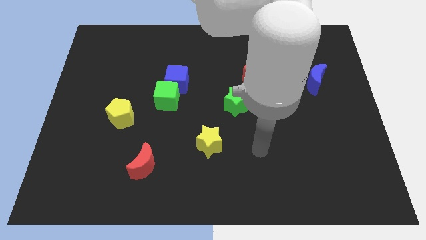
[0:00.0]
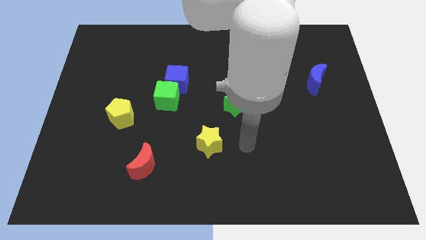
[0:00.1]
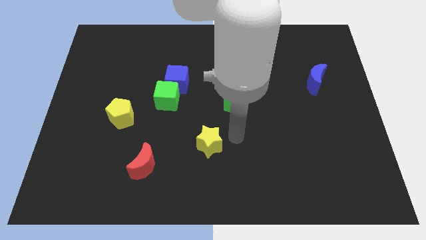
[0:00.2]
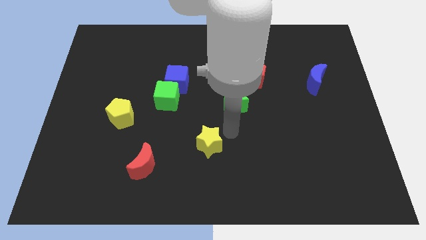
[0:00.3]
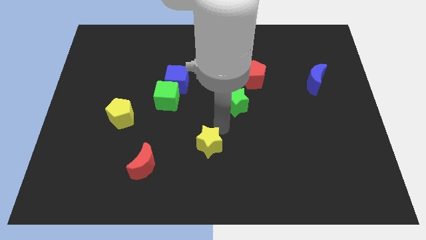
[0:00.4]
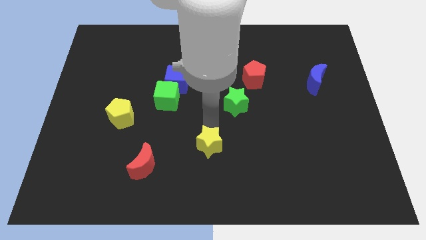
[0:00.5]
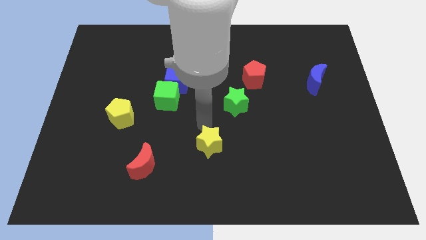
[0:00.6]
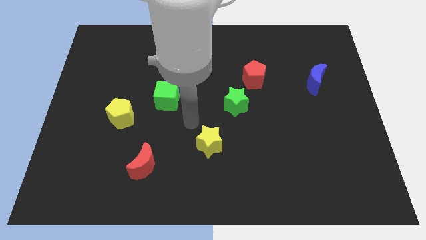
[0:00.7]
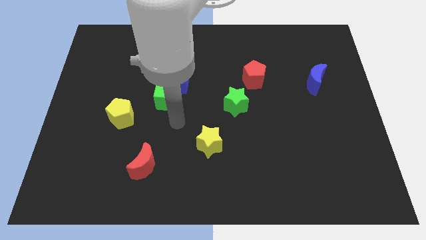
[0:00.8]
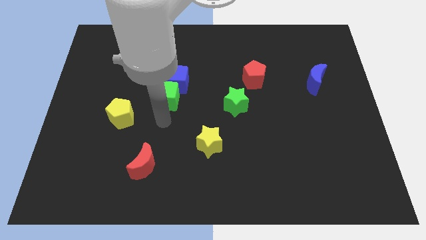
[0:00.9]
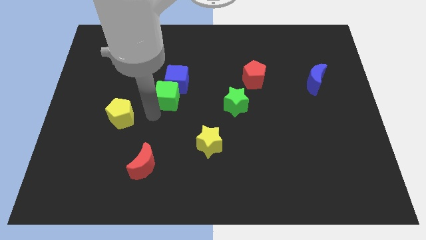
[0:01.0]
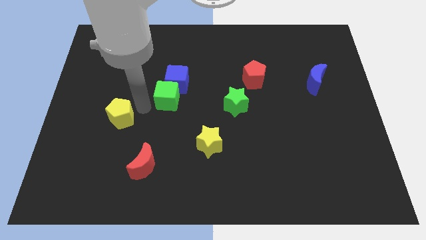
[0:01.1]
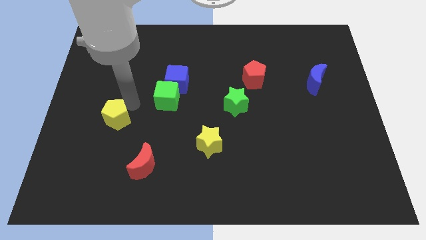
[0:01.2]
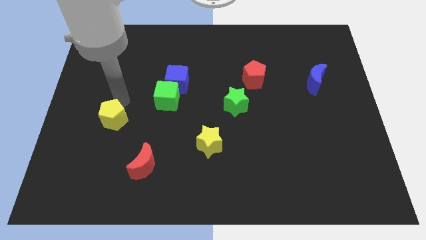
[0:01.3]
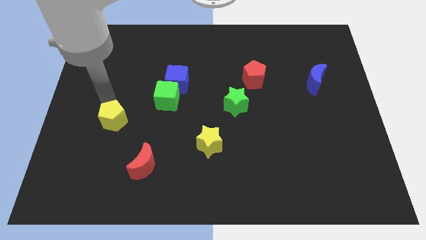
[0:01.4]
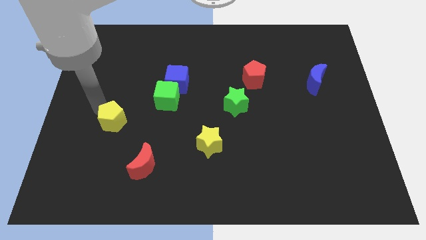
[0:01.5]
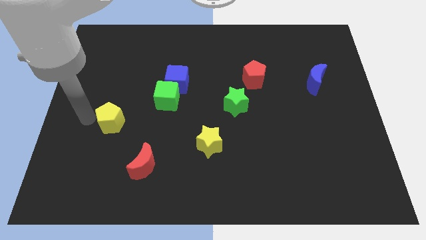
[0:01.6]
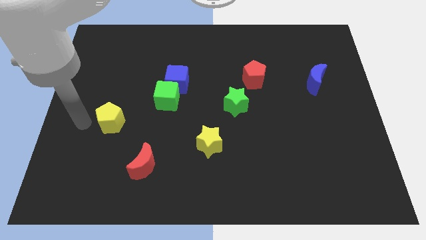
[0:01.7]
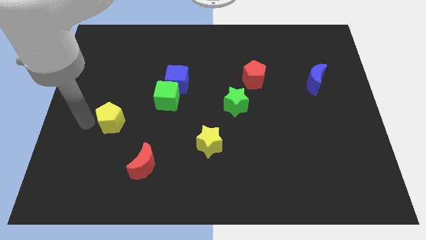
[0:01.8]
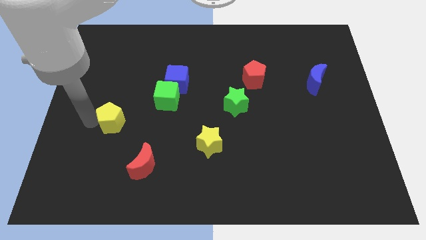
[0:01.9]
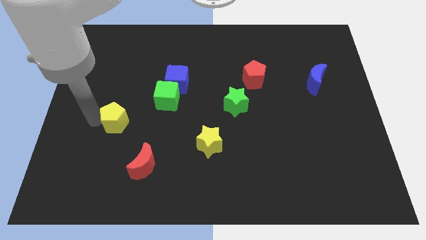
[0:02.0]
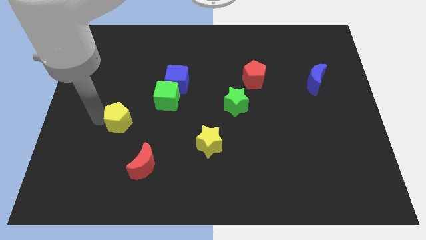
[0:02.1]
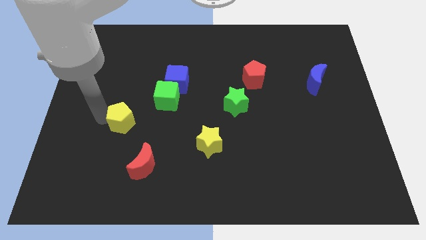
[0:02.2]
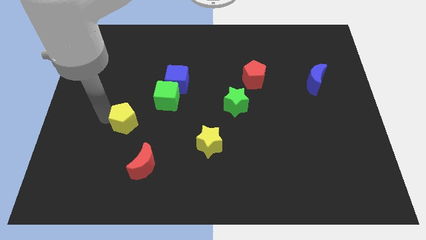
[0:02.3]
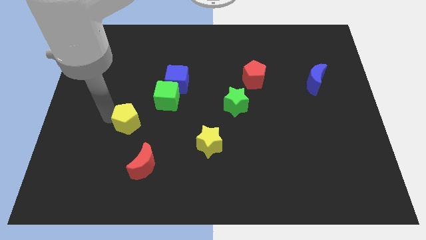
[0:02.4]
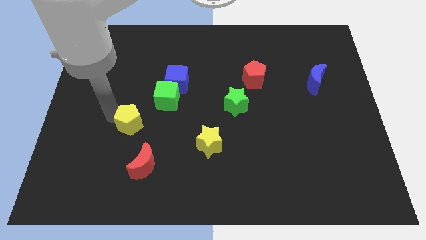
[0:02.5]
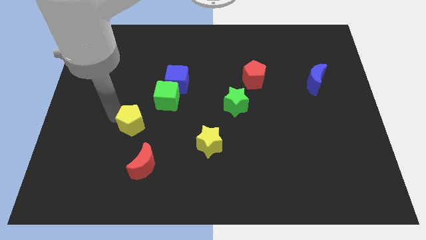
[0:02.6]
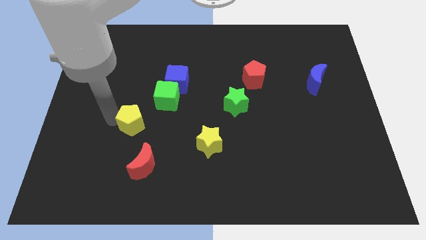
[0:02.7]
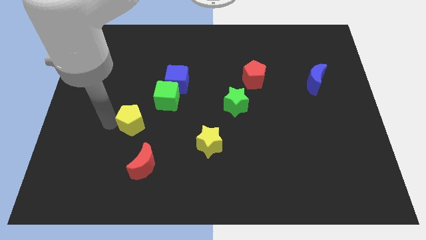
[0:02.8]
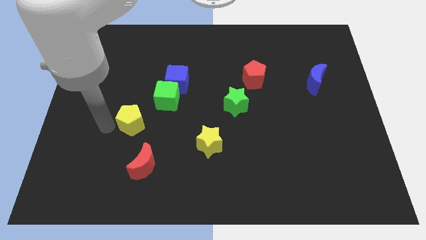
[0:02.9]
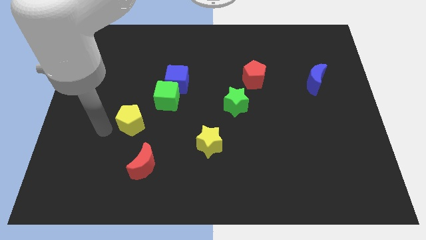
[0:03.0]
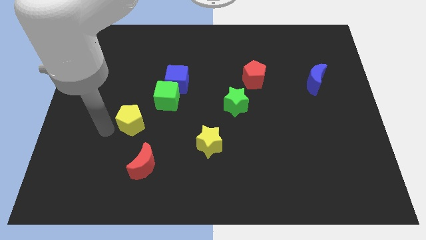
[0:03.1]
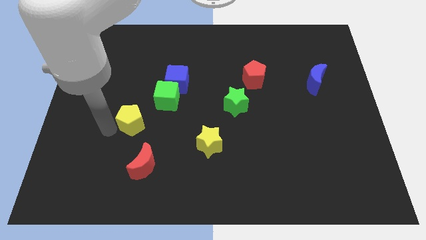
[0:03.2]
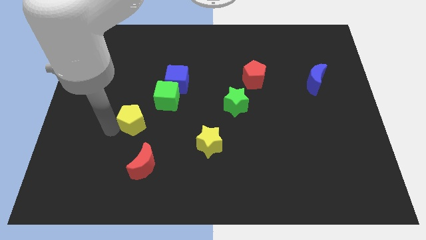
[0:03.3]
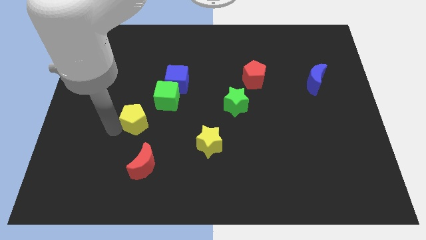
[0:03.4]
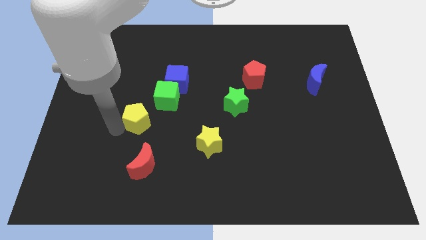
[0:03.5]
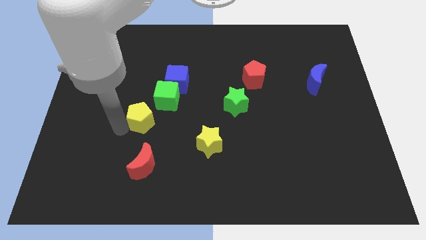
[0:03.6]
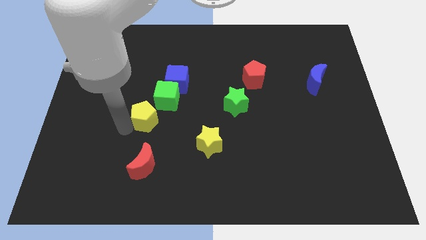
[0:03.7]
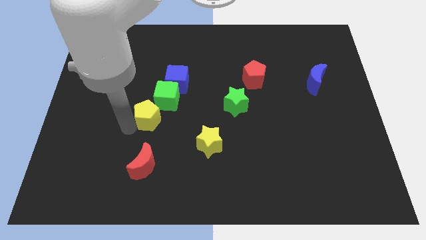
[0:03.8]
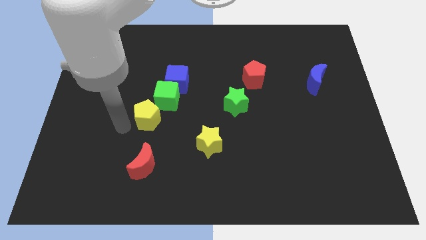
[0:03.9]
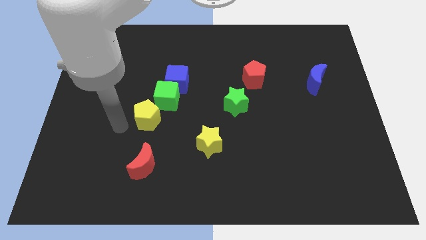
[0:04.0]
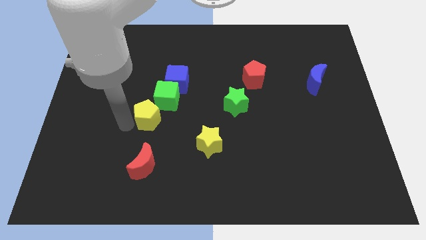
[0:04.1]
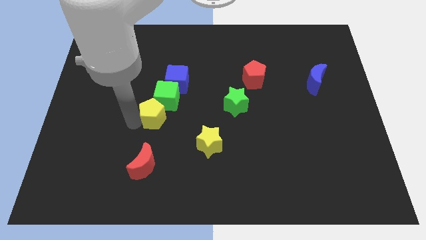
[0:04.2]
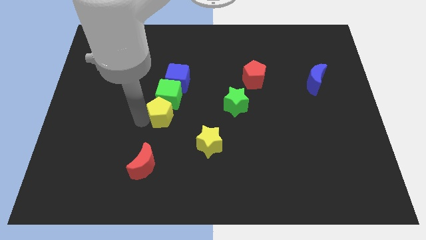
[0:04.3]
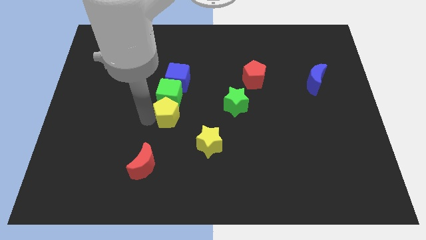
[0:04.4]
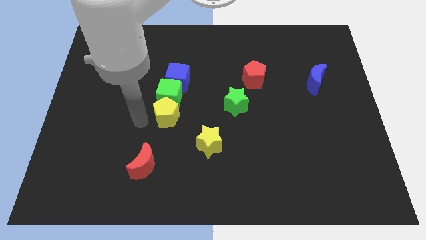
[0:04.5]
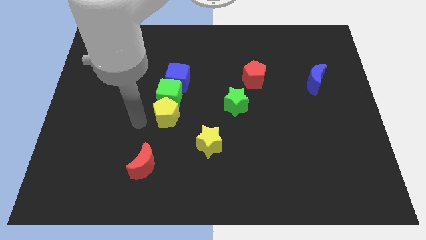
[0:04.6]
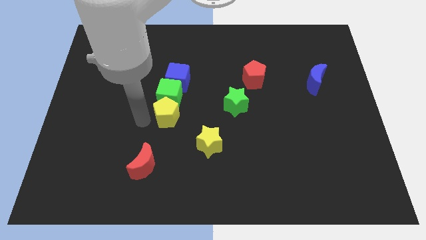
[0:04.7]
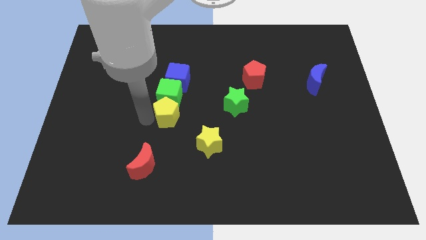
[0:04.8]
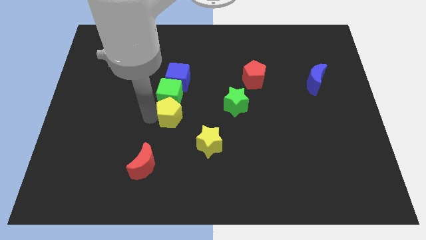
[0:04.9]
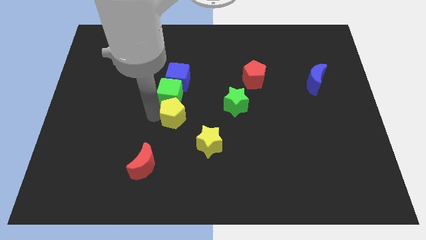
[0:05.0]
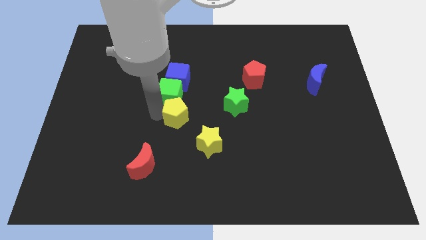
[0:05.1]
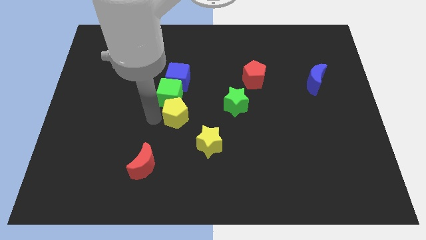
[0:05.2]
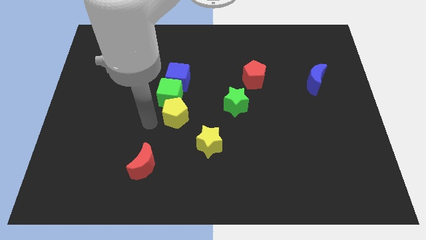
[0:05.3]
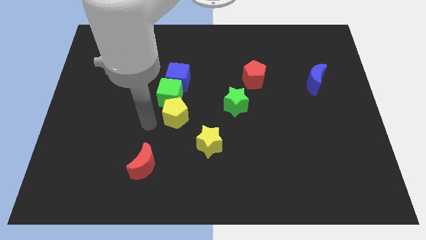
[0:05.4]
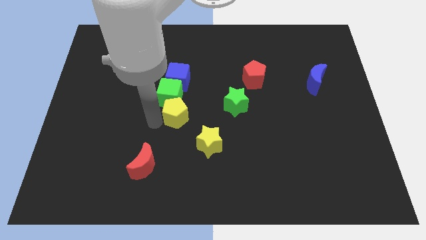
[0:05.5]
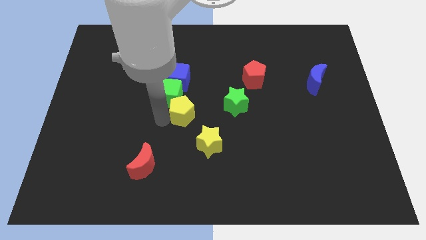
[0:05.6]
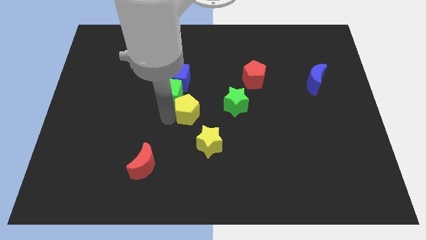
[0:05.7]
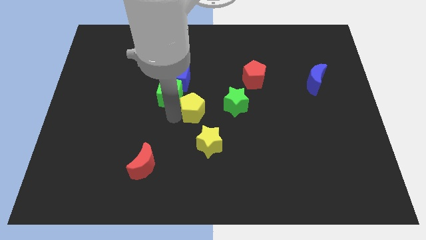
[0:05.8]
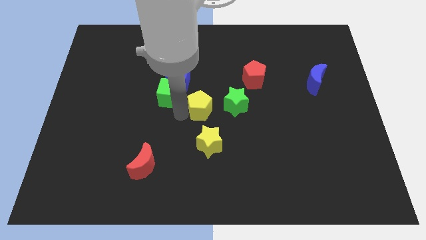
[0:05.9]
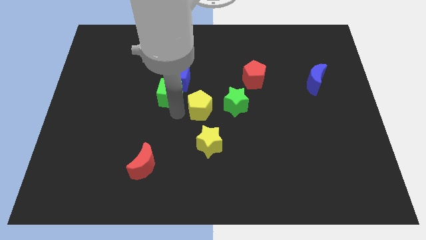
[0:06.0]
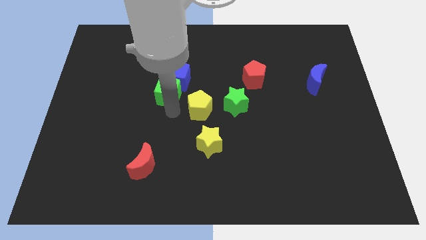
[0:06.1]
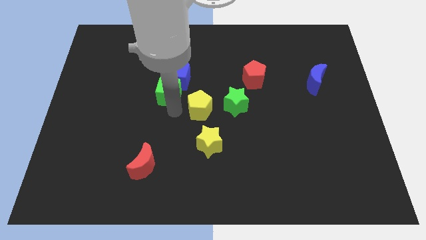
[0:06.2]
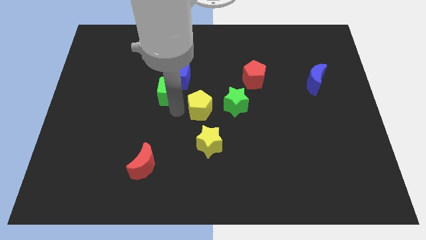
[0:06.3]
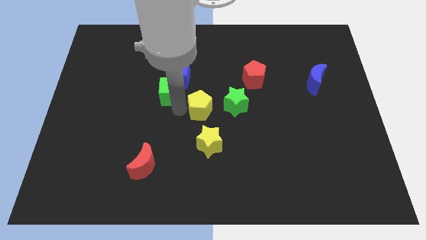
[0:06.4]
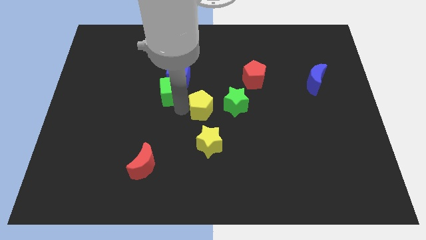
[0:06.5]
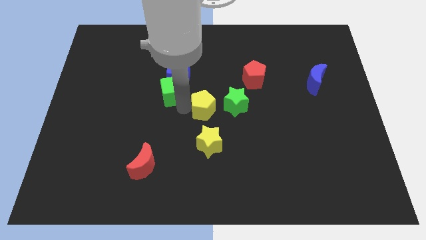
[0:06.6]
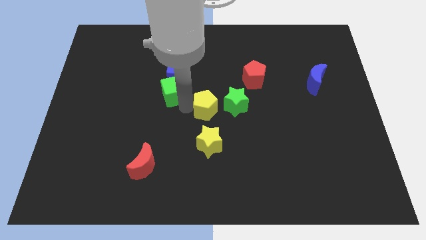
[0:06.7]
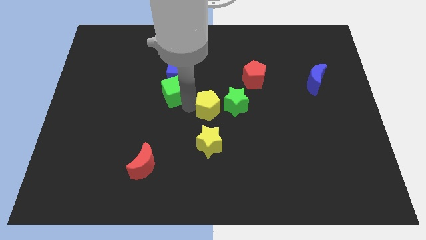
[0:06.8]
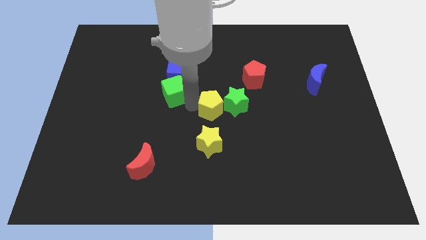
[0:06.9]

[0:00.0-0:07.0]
push the yellow pentagon towards the green star
